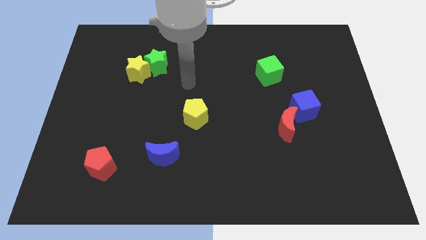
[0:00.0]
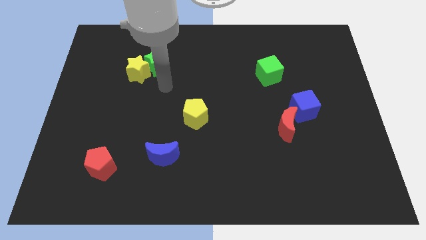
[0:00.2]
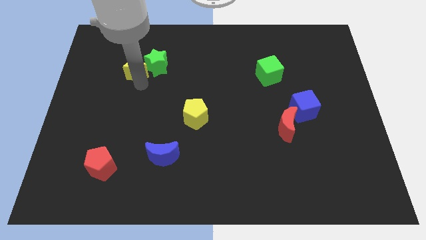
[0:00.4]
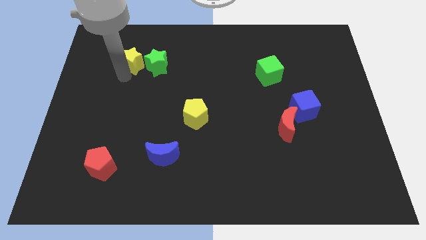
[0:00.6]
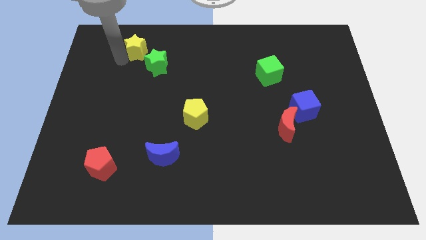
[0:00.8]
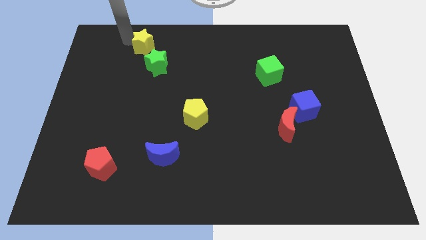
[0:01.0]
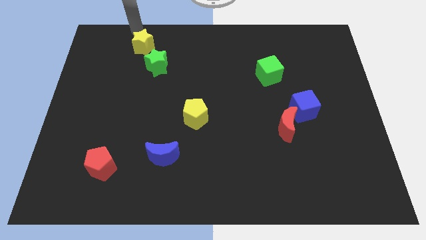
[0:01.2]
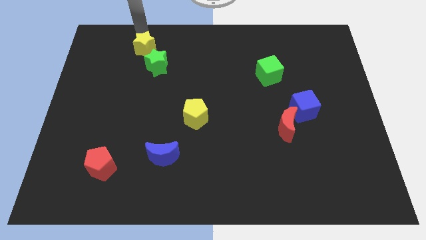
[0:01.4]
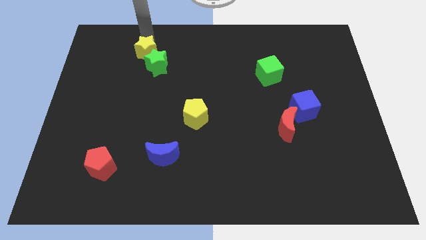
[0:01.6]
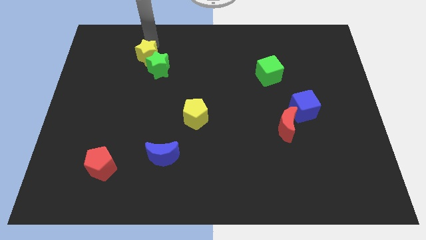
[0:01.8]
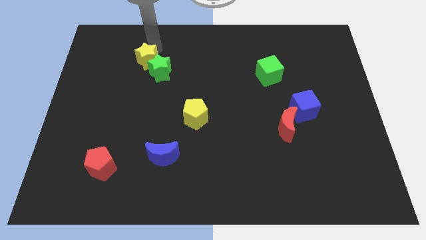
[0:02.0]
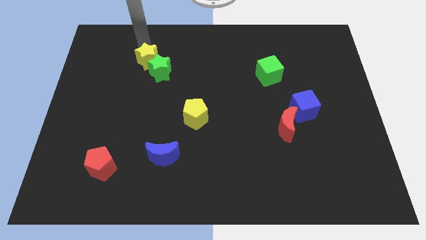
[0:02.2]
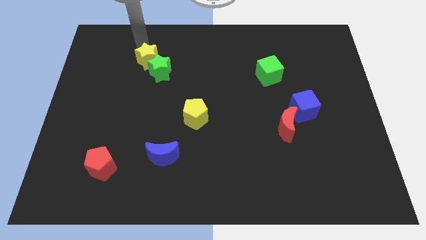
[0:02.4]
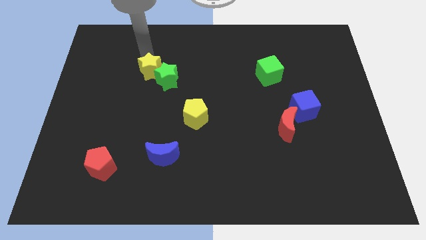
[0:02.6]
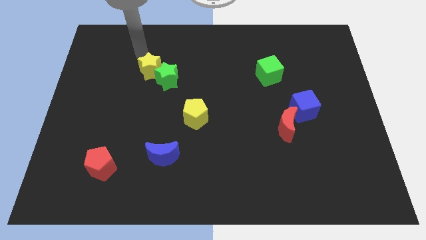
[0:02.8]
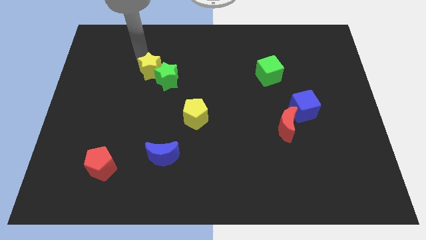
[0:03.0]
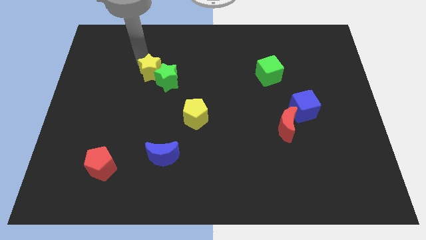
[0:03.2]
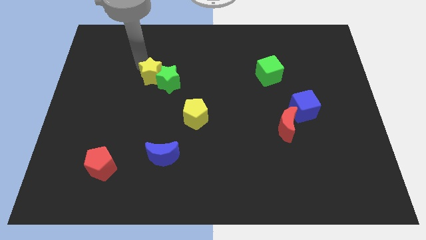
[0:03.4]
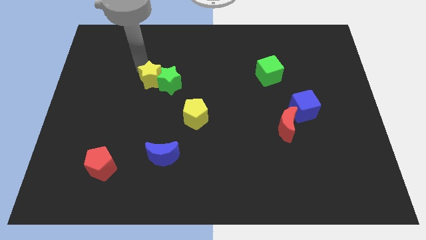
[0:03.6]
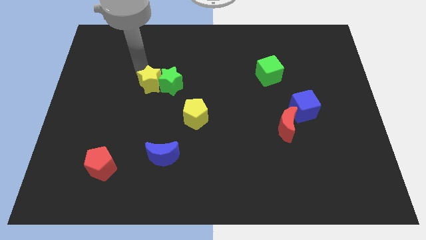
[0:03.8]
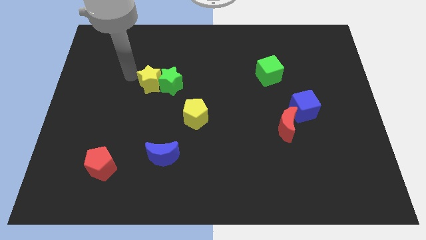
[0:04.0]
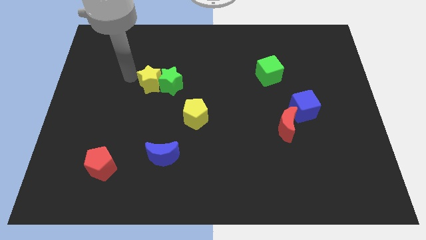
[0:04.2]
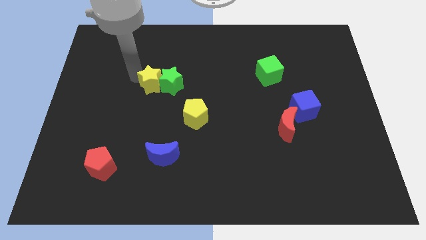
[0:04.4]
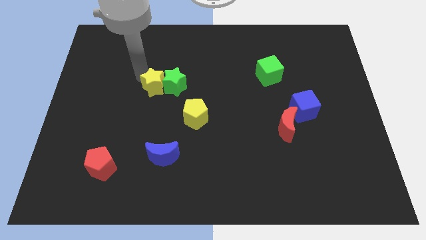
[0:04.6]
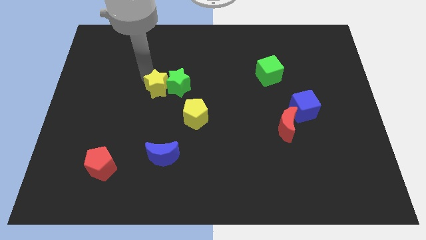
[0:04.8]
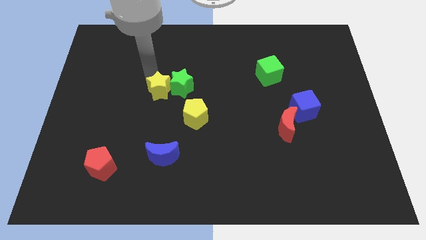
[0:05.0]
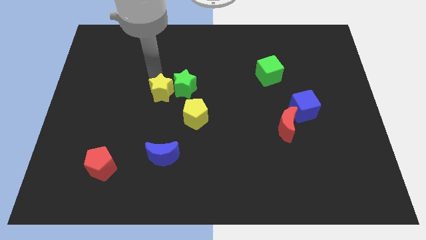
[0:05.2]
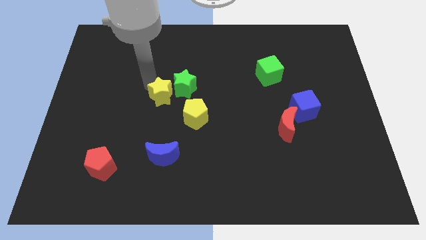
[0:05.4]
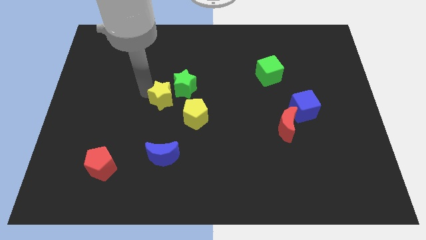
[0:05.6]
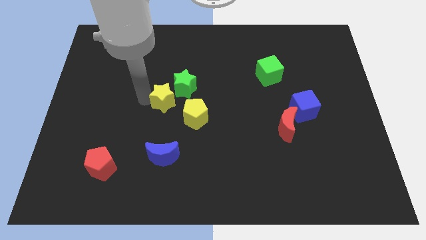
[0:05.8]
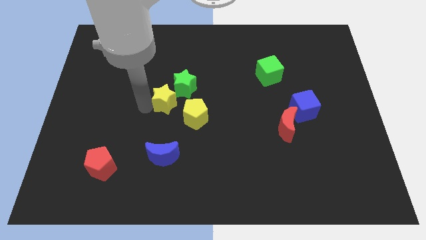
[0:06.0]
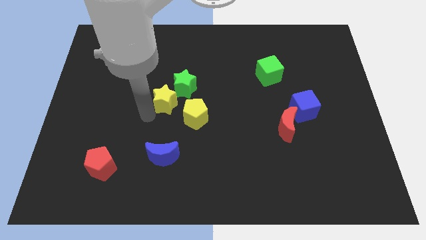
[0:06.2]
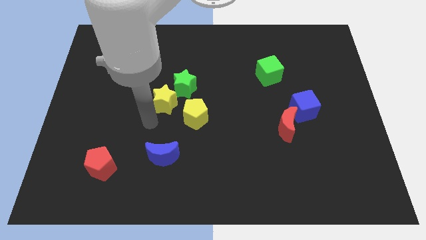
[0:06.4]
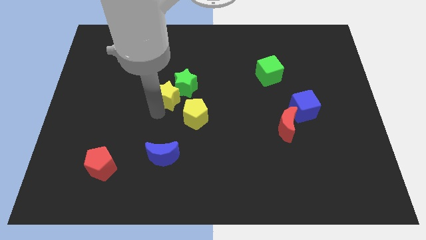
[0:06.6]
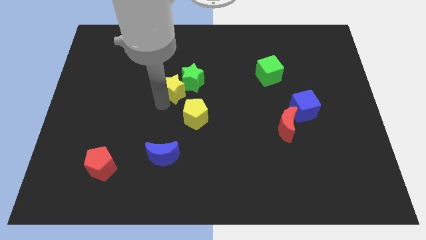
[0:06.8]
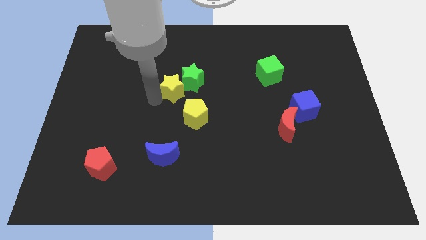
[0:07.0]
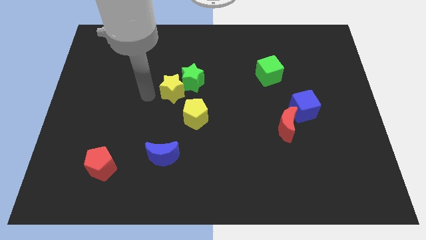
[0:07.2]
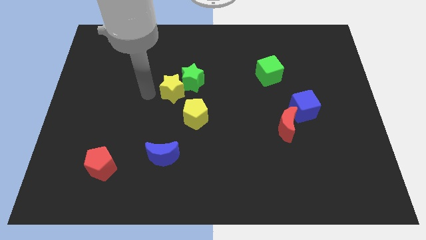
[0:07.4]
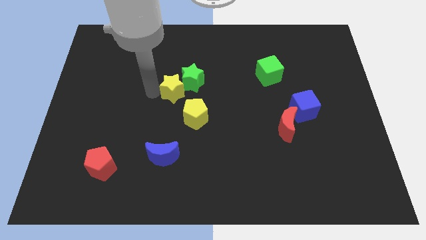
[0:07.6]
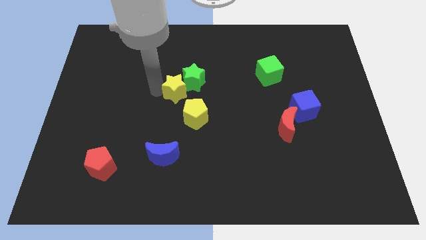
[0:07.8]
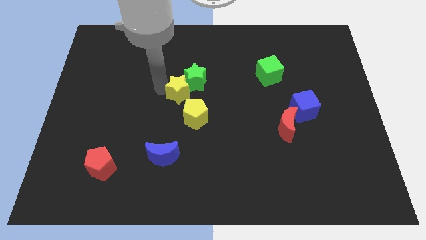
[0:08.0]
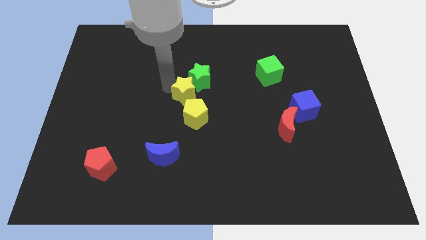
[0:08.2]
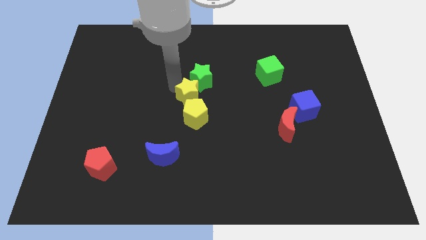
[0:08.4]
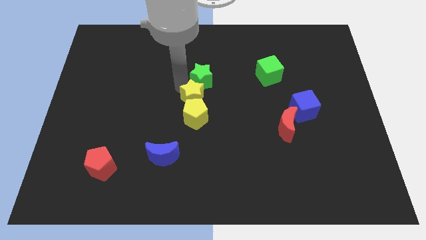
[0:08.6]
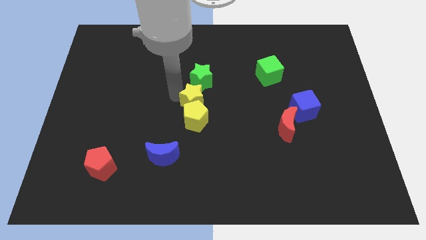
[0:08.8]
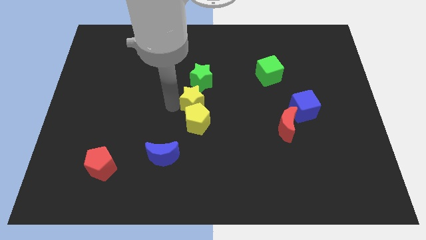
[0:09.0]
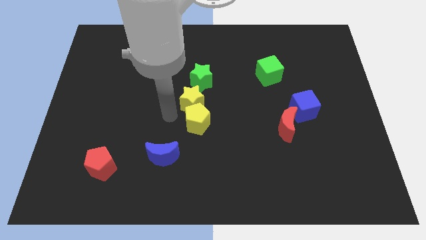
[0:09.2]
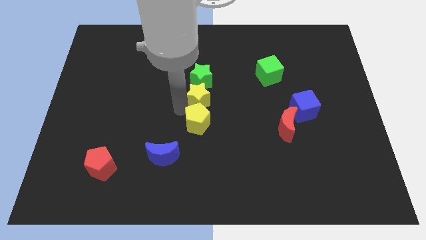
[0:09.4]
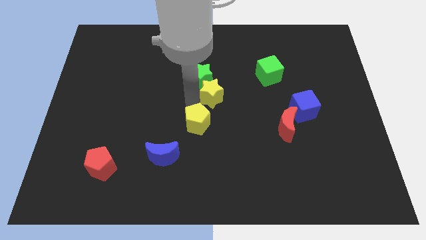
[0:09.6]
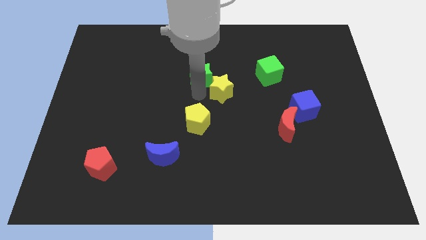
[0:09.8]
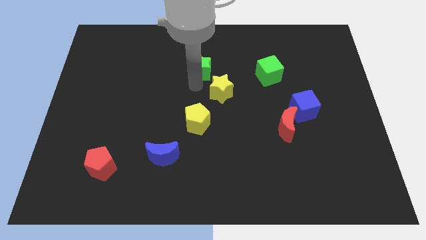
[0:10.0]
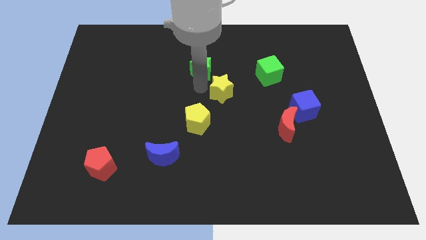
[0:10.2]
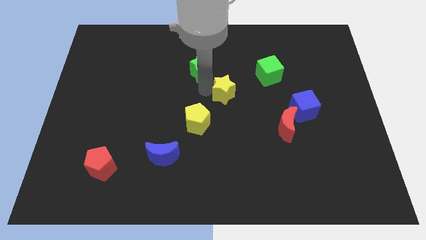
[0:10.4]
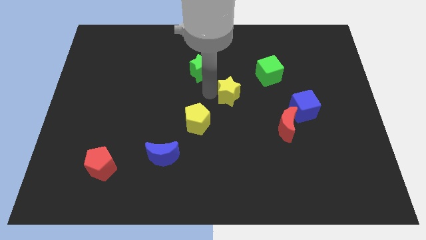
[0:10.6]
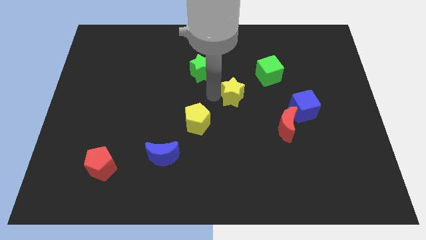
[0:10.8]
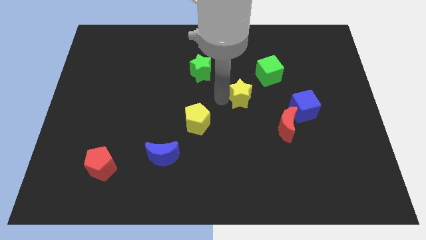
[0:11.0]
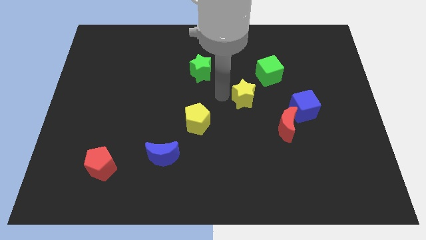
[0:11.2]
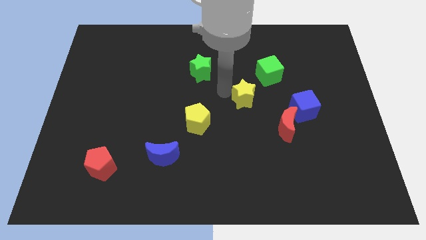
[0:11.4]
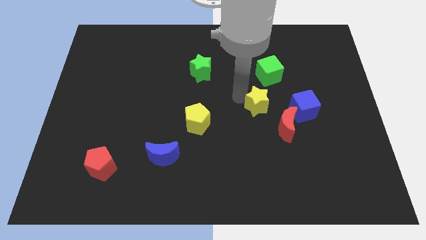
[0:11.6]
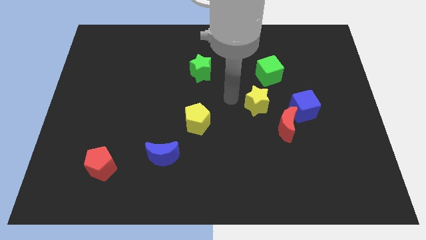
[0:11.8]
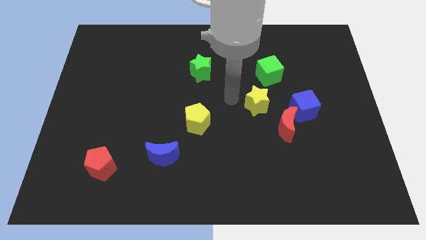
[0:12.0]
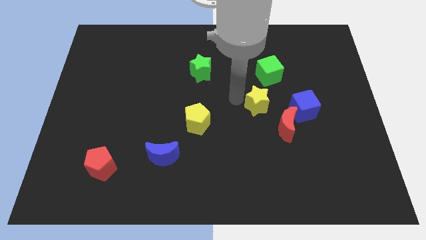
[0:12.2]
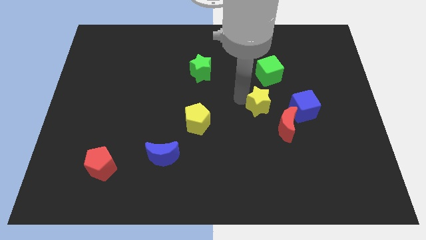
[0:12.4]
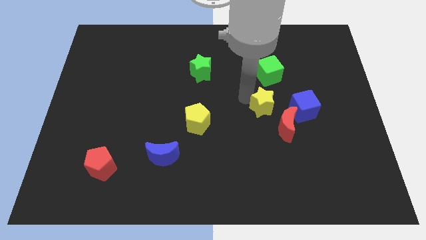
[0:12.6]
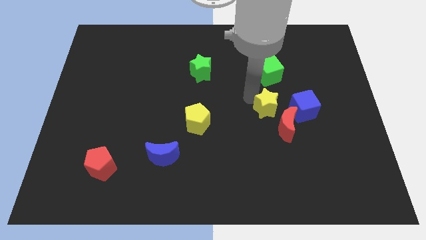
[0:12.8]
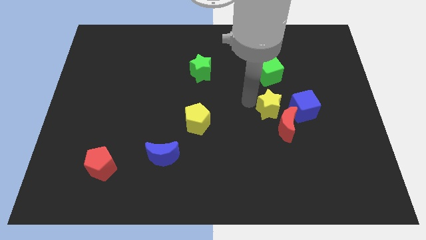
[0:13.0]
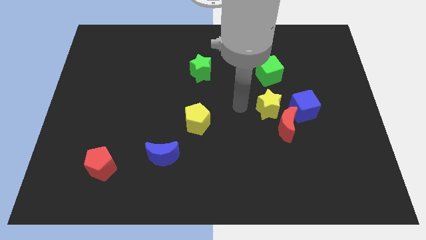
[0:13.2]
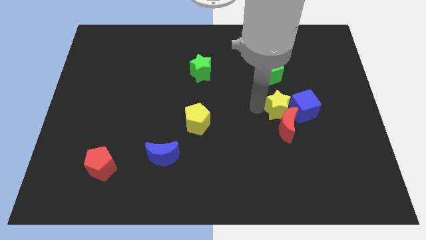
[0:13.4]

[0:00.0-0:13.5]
put the yellow star to the blue cube

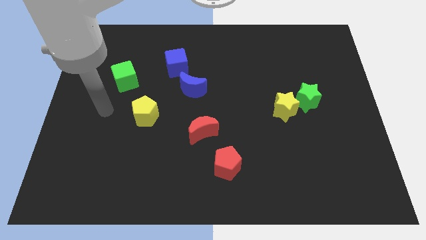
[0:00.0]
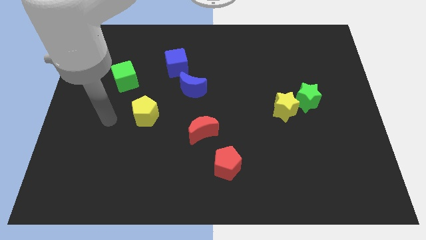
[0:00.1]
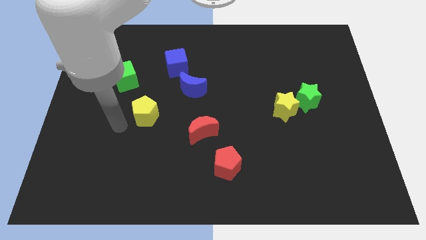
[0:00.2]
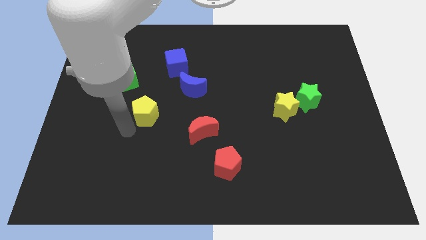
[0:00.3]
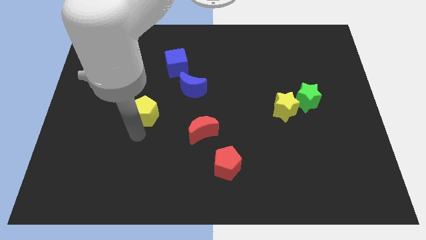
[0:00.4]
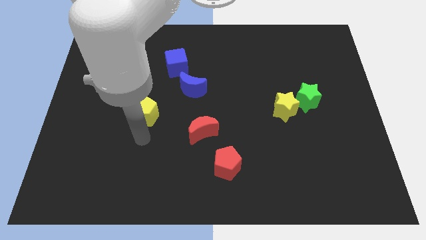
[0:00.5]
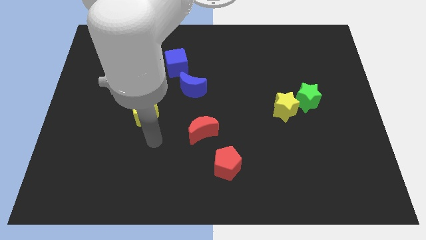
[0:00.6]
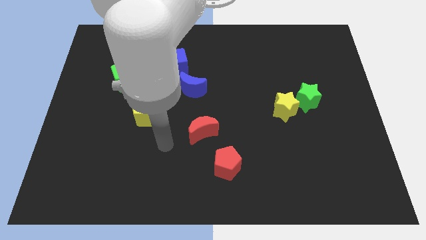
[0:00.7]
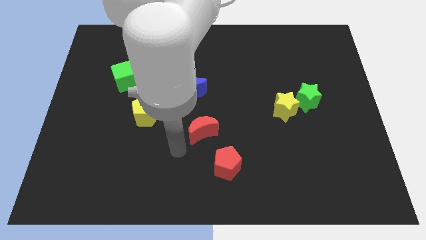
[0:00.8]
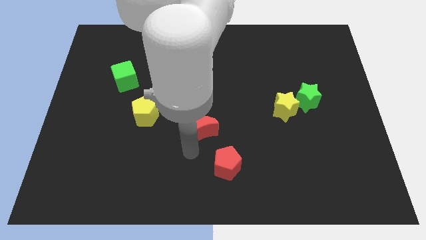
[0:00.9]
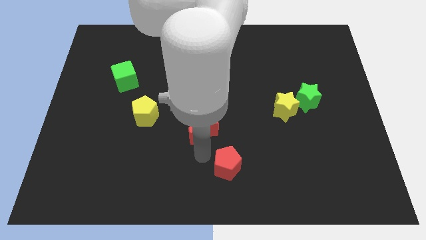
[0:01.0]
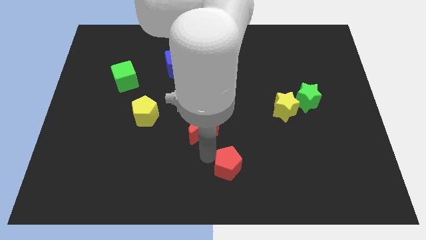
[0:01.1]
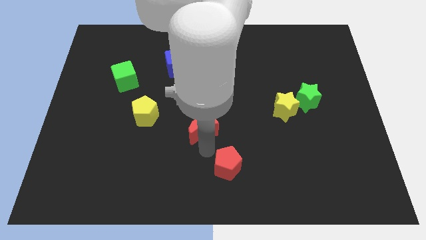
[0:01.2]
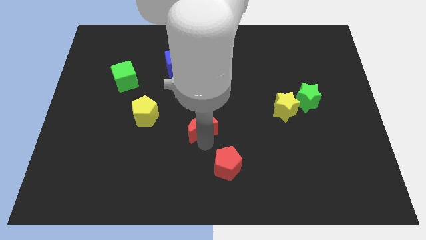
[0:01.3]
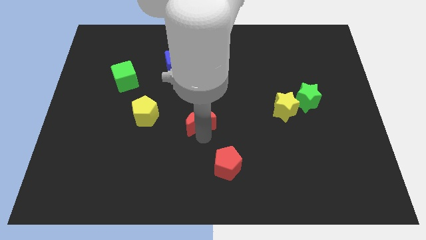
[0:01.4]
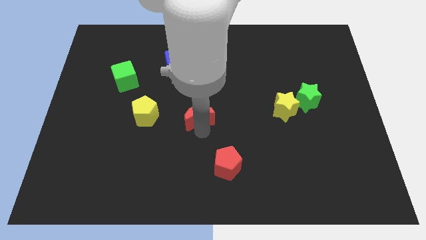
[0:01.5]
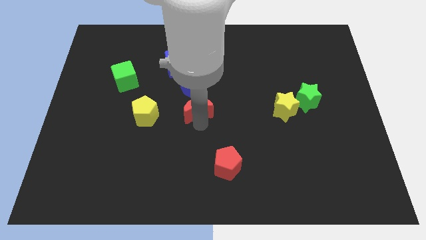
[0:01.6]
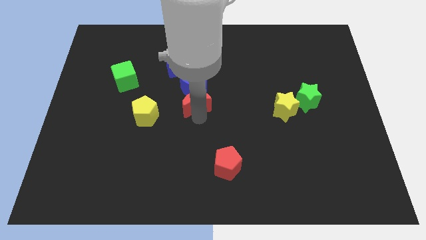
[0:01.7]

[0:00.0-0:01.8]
move the red moon close to the blue moon
